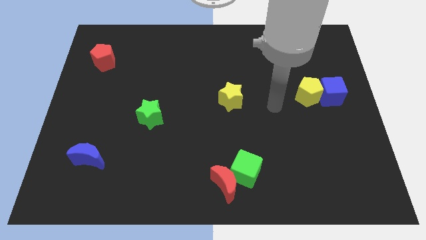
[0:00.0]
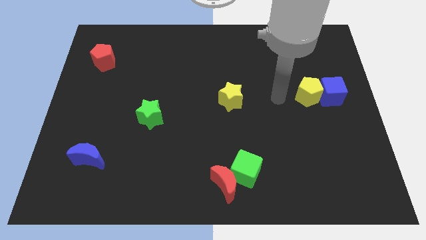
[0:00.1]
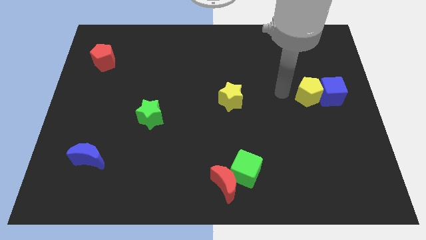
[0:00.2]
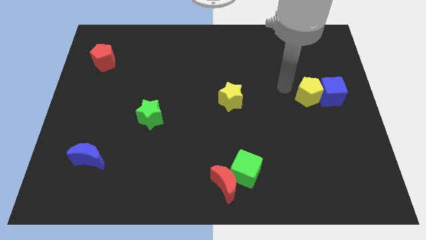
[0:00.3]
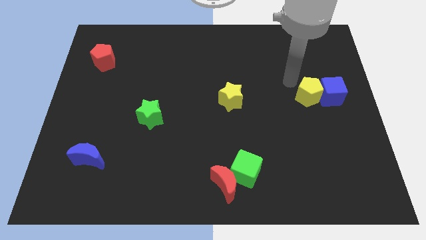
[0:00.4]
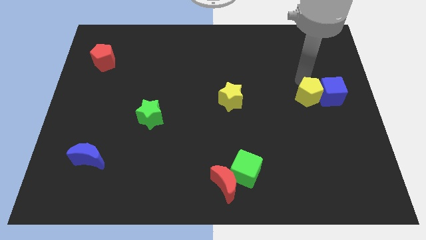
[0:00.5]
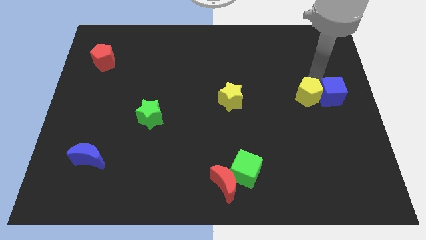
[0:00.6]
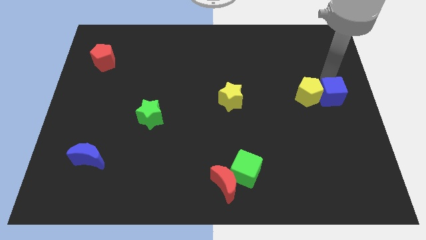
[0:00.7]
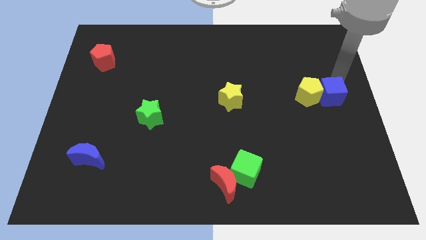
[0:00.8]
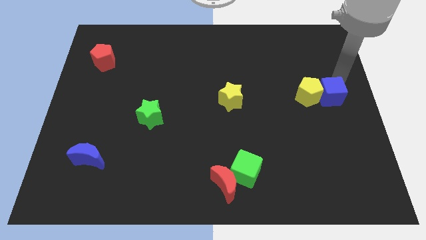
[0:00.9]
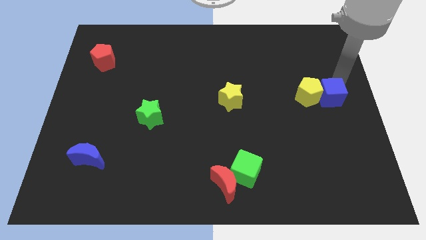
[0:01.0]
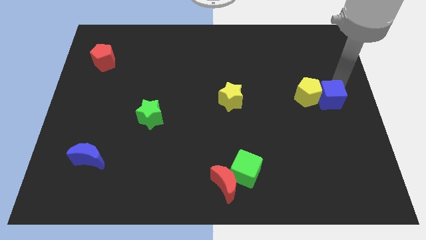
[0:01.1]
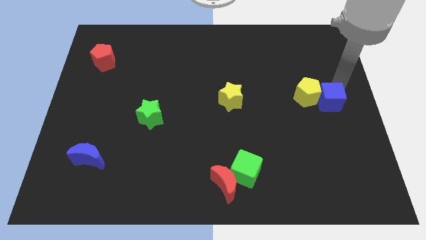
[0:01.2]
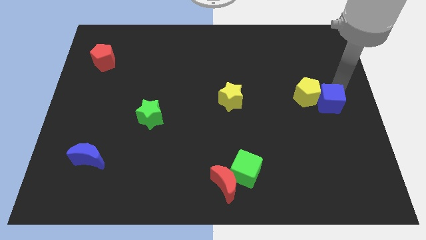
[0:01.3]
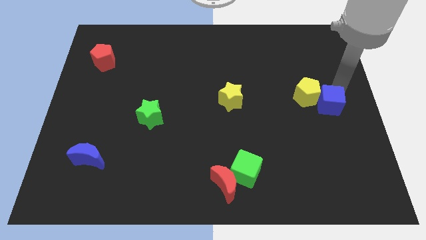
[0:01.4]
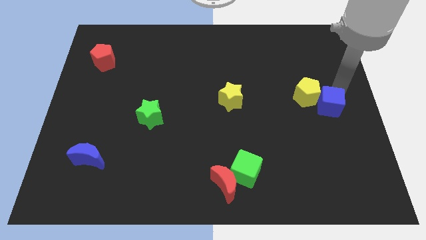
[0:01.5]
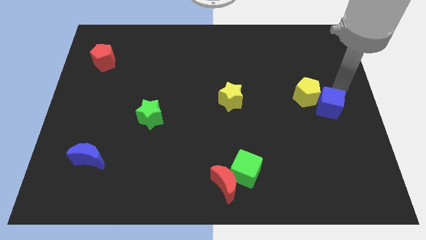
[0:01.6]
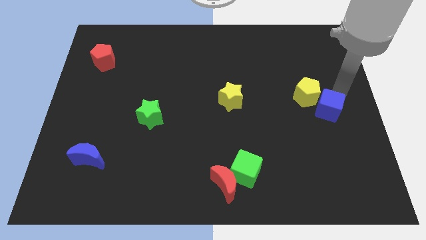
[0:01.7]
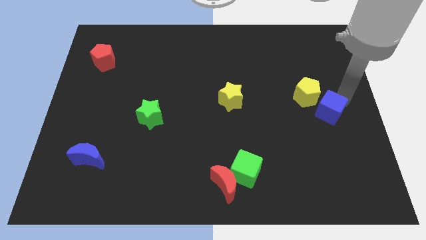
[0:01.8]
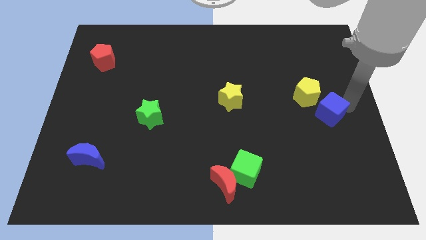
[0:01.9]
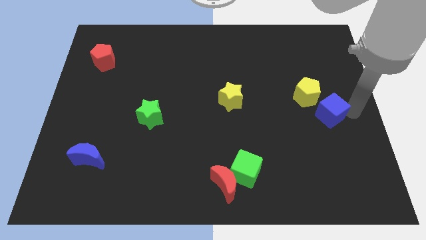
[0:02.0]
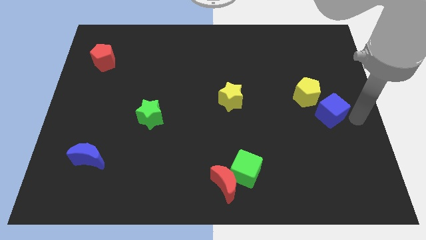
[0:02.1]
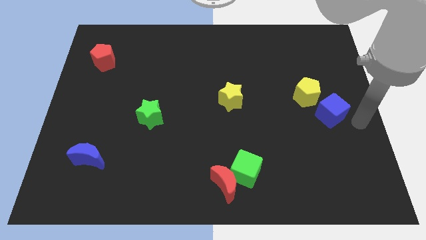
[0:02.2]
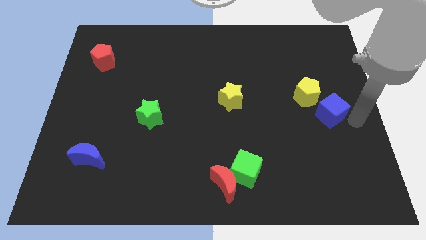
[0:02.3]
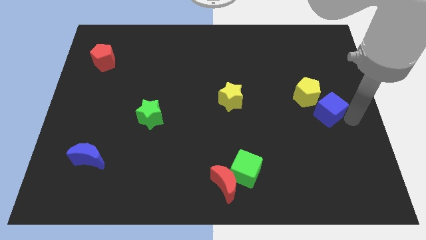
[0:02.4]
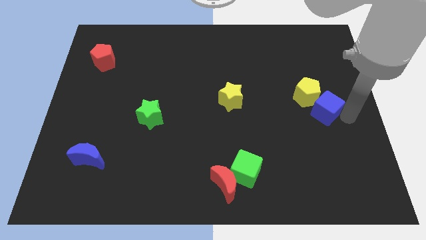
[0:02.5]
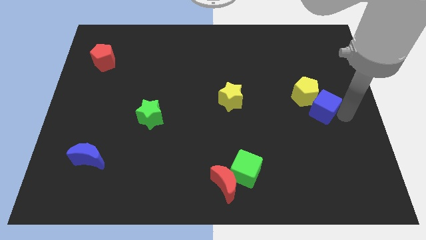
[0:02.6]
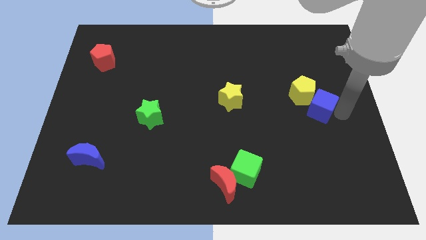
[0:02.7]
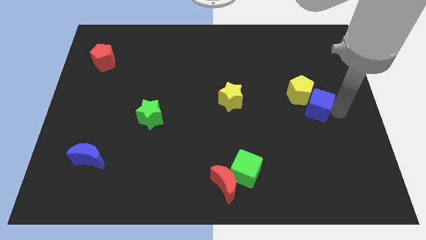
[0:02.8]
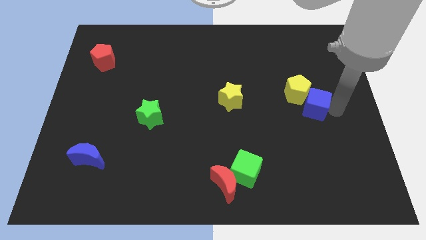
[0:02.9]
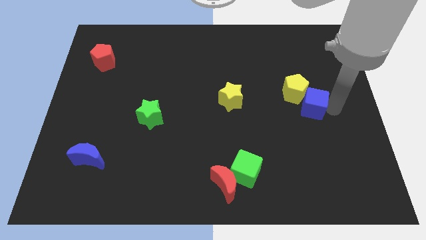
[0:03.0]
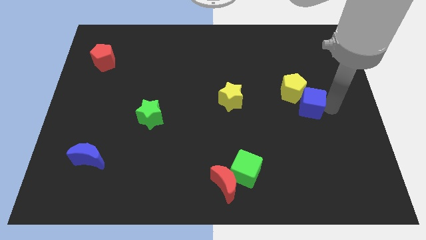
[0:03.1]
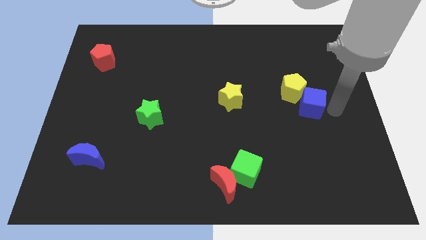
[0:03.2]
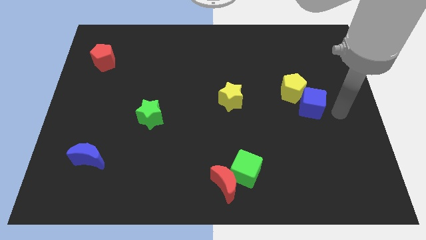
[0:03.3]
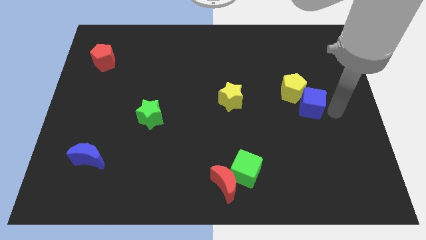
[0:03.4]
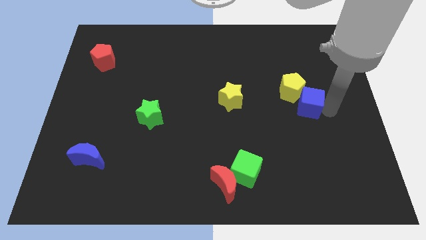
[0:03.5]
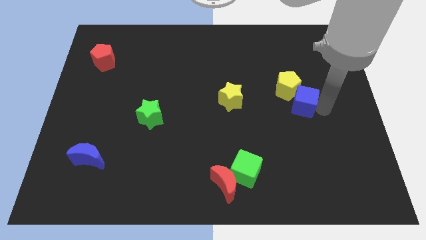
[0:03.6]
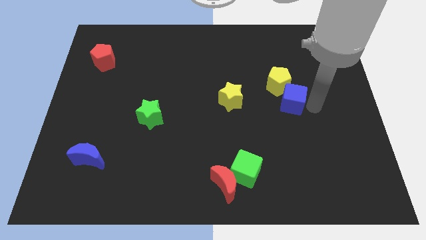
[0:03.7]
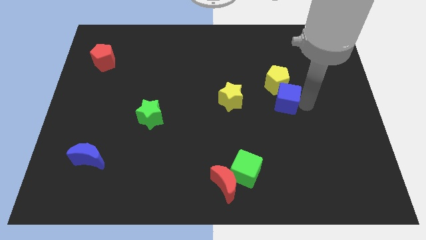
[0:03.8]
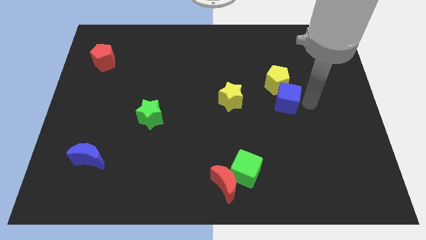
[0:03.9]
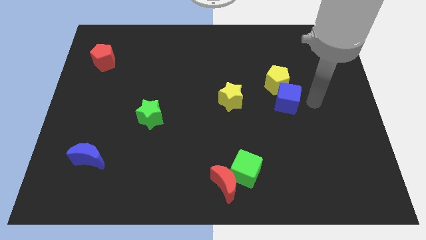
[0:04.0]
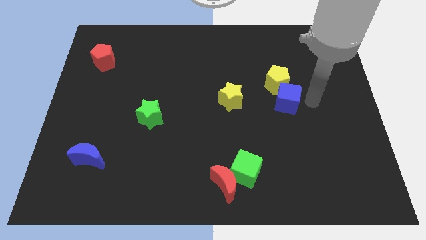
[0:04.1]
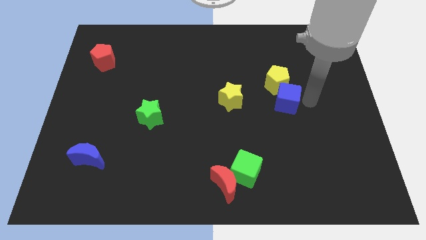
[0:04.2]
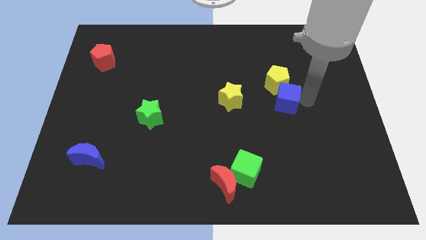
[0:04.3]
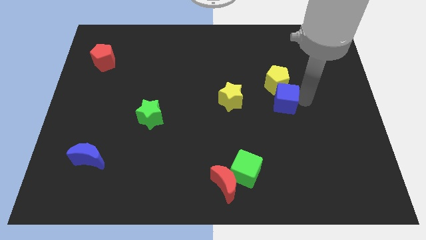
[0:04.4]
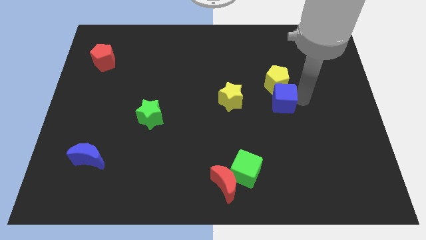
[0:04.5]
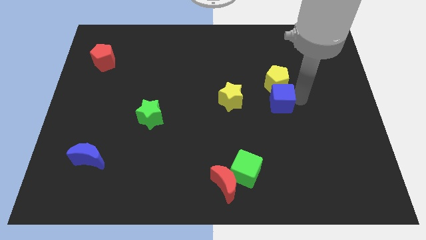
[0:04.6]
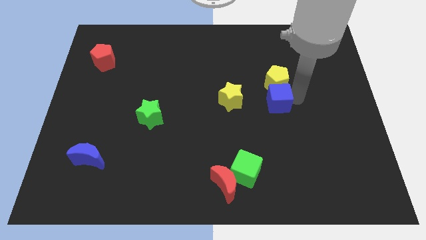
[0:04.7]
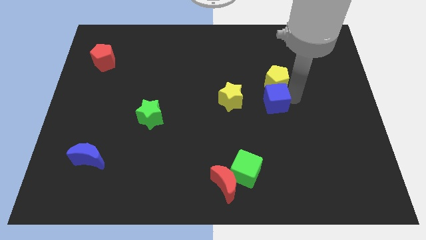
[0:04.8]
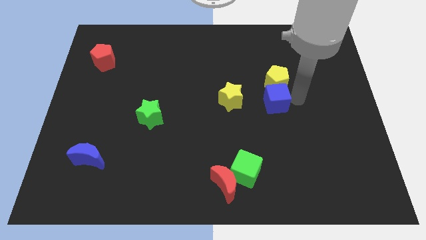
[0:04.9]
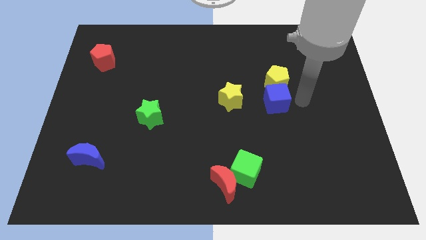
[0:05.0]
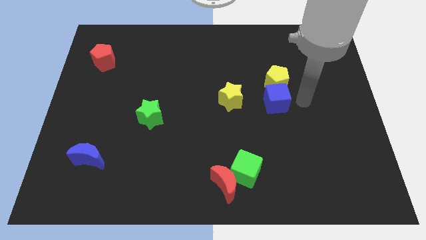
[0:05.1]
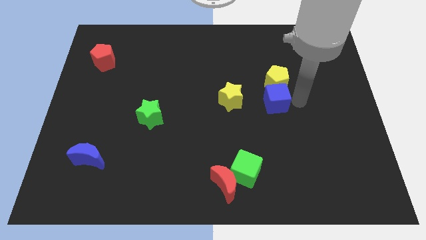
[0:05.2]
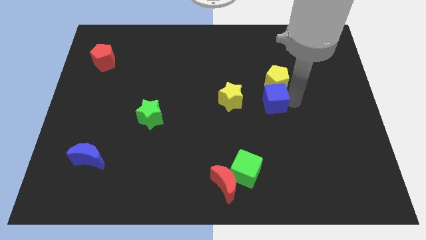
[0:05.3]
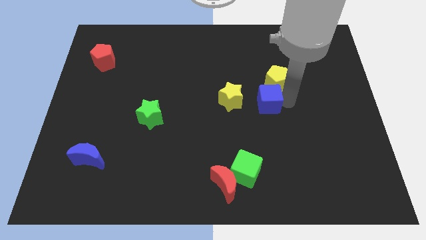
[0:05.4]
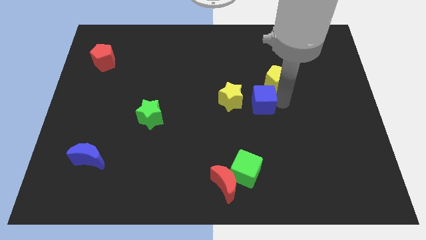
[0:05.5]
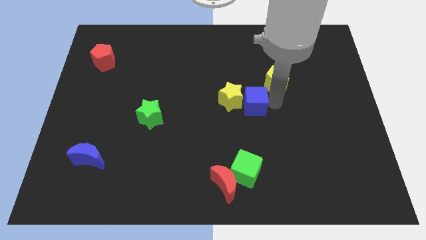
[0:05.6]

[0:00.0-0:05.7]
push the blue cube to the yellow star

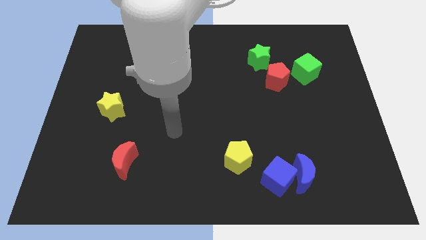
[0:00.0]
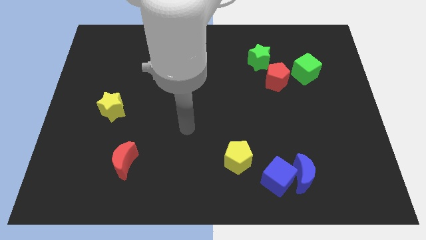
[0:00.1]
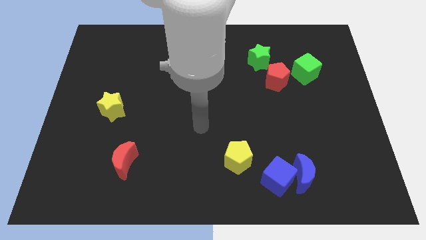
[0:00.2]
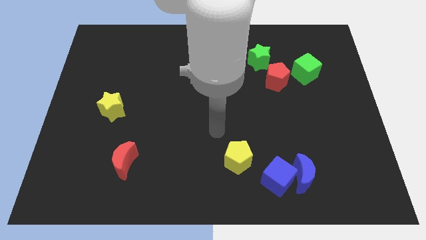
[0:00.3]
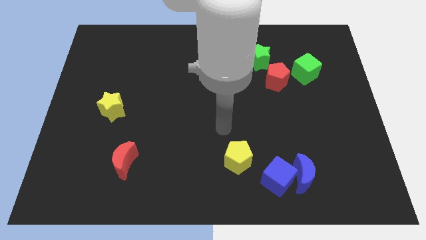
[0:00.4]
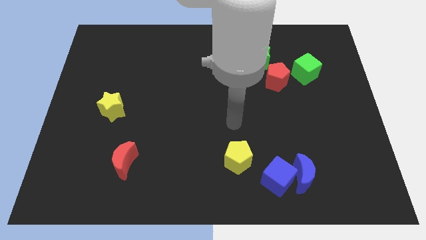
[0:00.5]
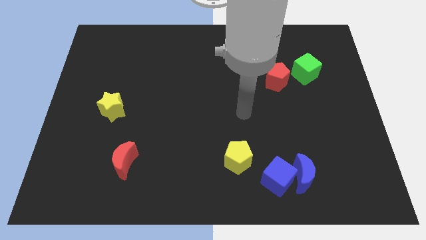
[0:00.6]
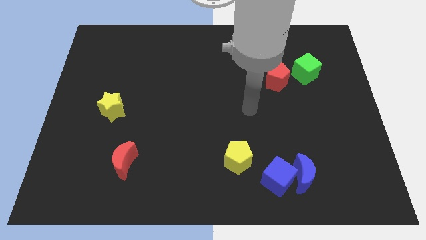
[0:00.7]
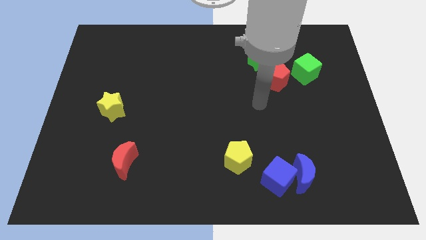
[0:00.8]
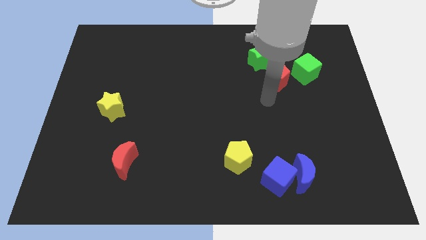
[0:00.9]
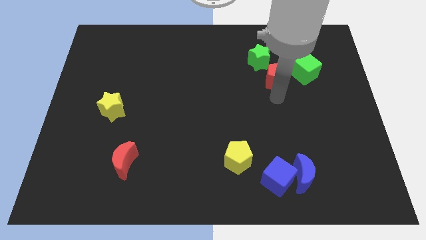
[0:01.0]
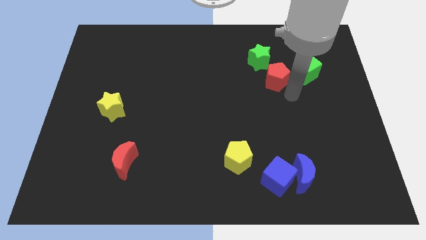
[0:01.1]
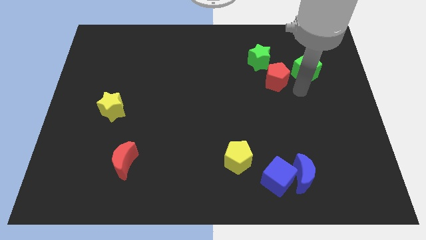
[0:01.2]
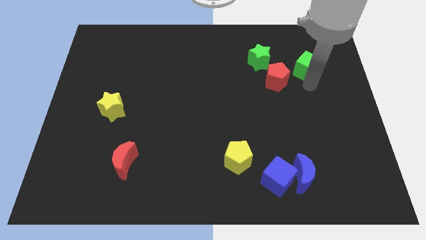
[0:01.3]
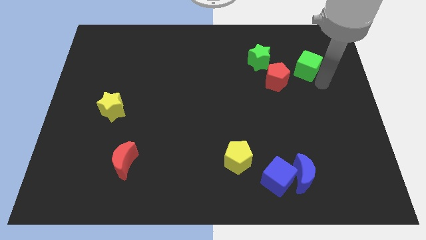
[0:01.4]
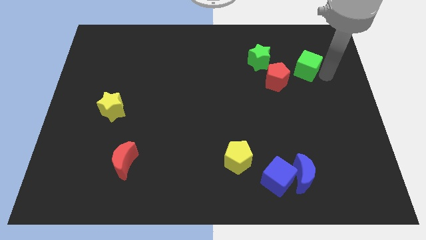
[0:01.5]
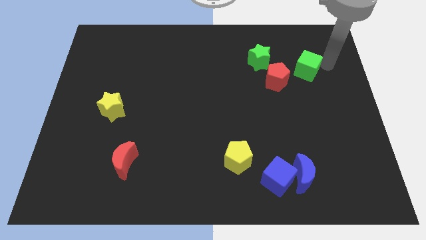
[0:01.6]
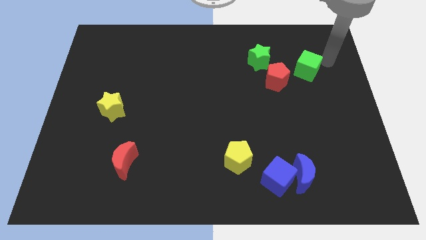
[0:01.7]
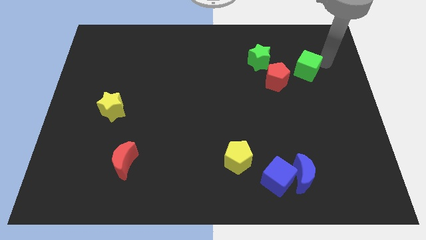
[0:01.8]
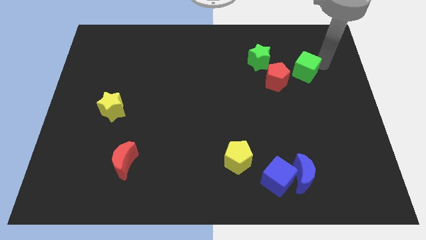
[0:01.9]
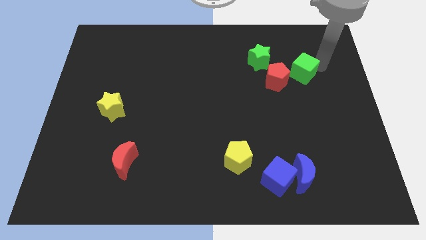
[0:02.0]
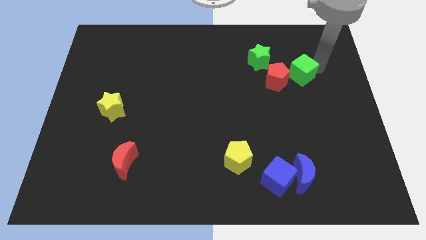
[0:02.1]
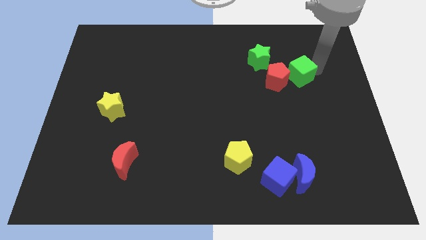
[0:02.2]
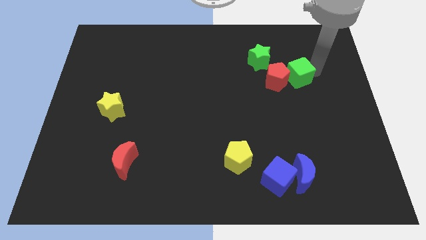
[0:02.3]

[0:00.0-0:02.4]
push the green cube next to the red pentagon
